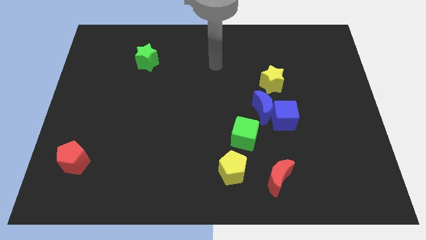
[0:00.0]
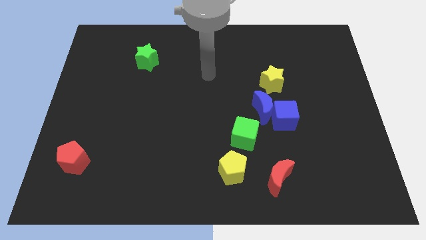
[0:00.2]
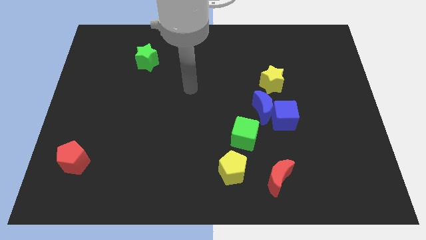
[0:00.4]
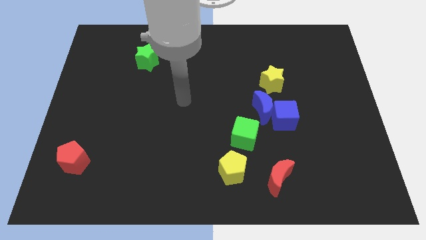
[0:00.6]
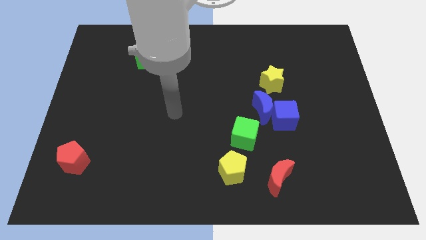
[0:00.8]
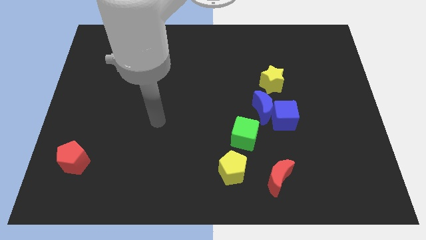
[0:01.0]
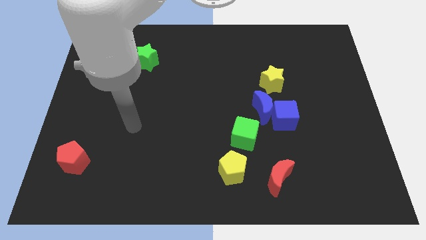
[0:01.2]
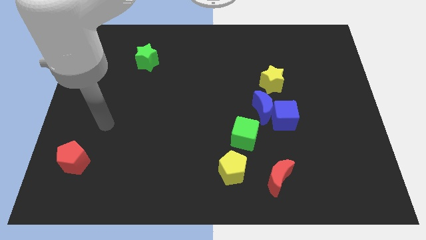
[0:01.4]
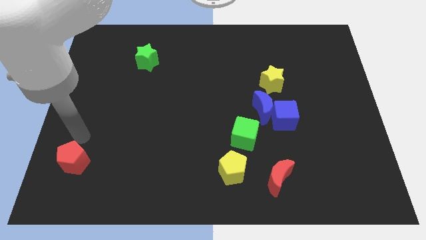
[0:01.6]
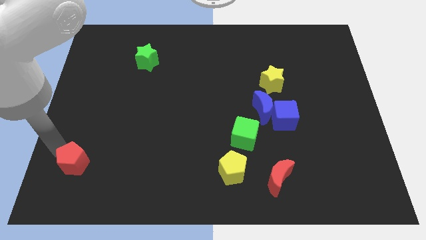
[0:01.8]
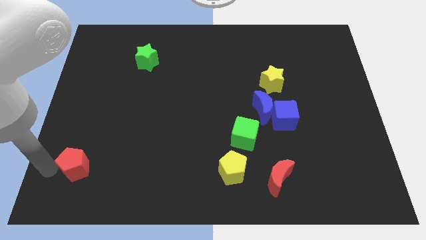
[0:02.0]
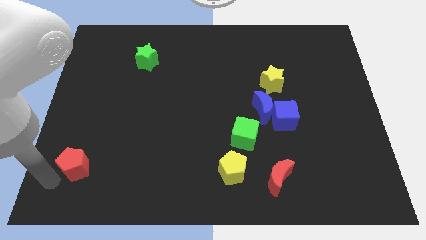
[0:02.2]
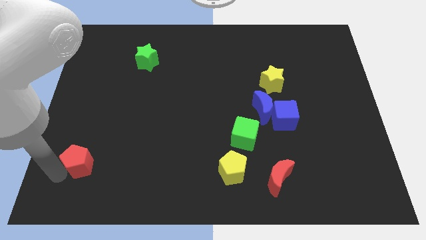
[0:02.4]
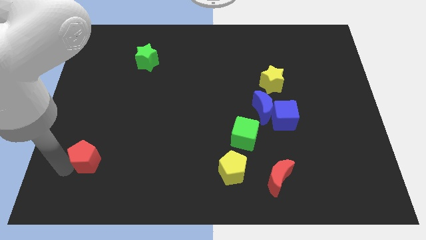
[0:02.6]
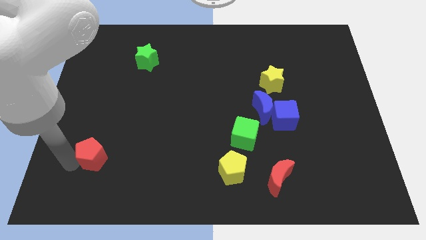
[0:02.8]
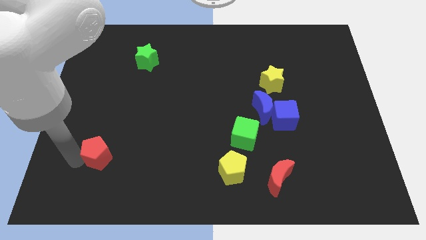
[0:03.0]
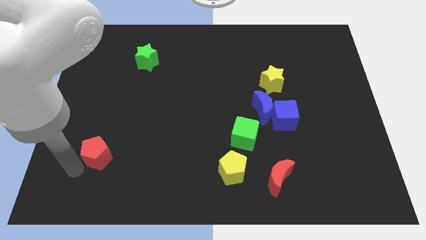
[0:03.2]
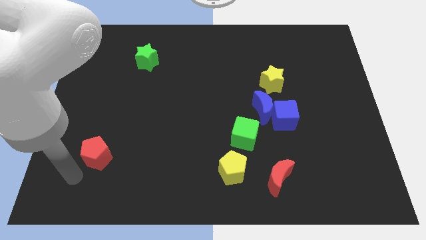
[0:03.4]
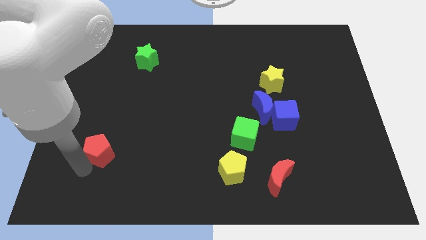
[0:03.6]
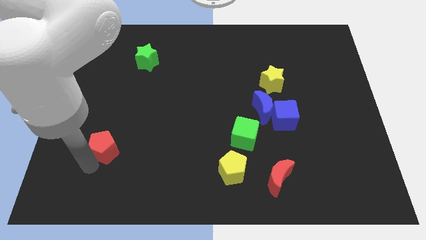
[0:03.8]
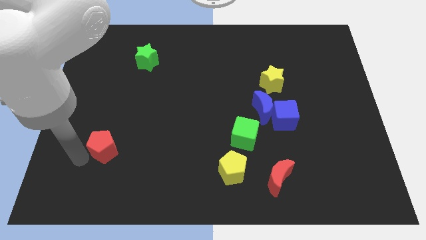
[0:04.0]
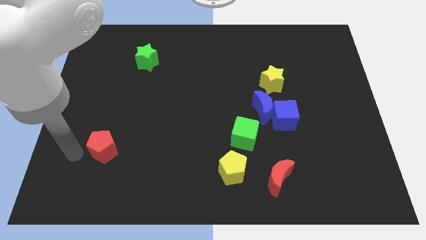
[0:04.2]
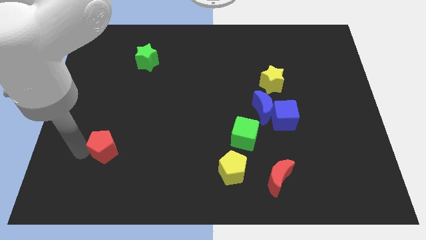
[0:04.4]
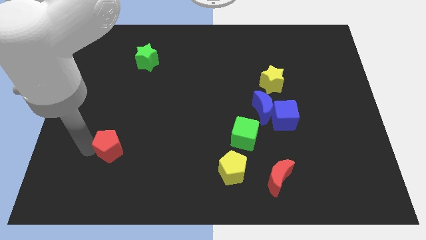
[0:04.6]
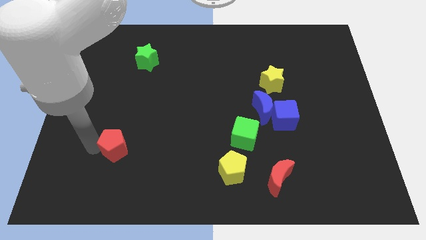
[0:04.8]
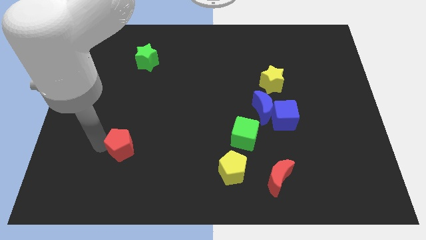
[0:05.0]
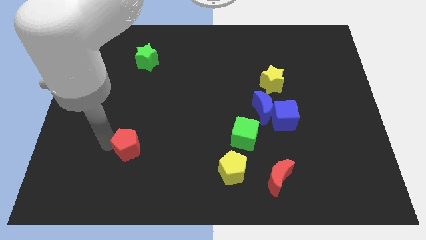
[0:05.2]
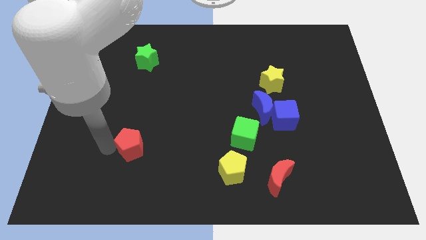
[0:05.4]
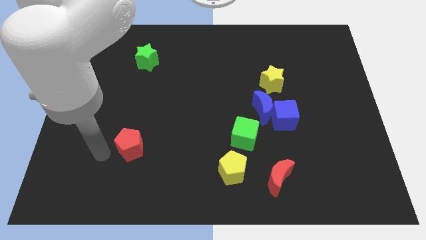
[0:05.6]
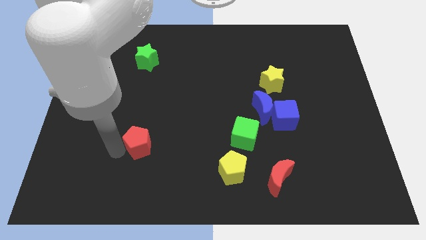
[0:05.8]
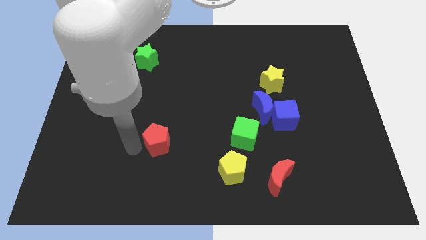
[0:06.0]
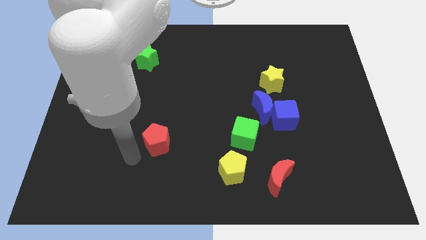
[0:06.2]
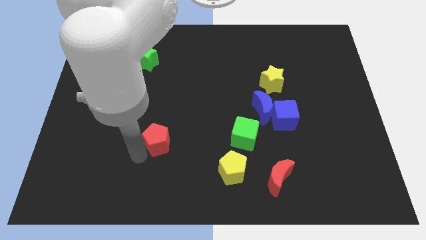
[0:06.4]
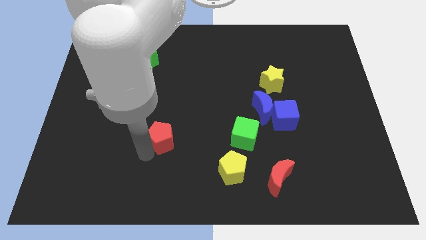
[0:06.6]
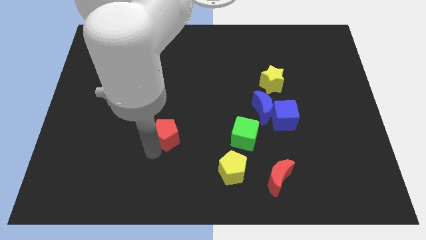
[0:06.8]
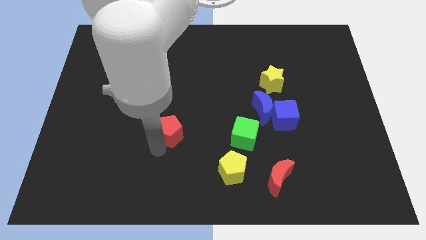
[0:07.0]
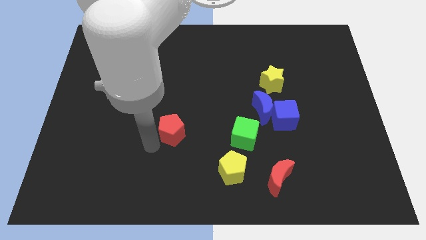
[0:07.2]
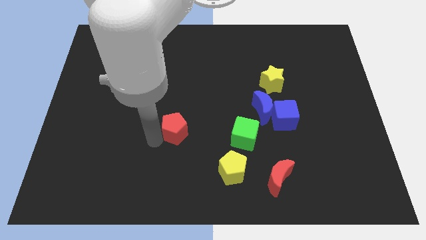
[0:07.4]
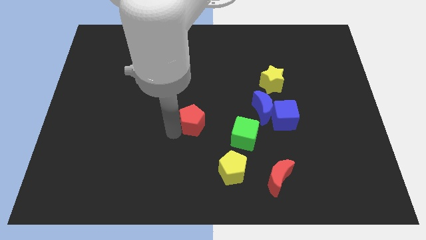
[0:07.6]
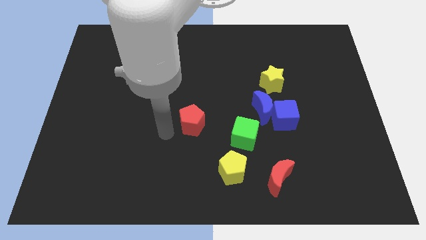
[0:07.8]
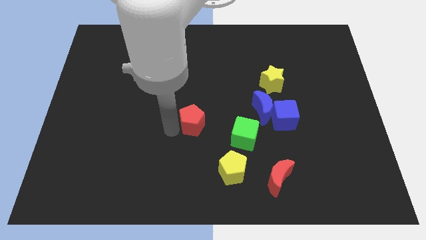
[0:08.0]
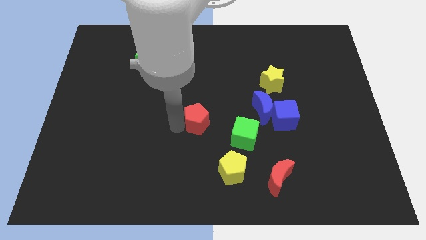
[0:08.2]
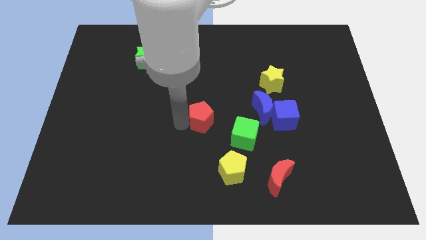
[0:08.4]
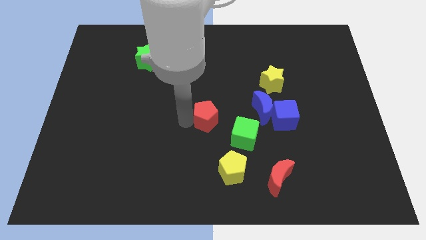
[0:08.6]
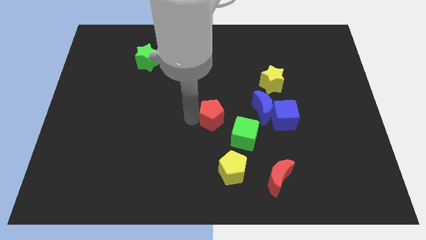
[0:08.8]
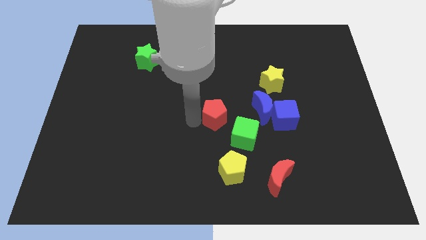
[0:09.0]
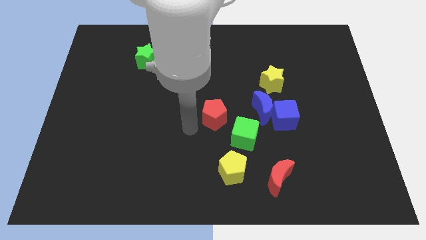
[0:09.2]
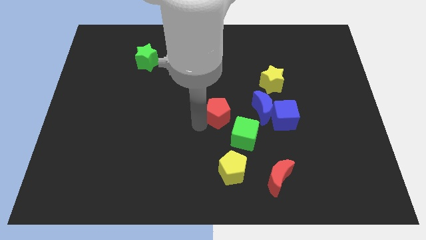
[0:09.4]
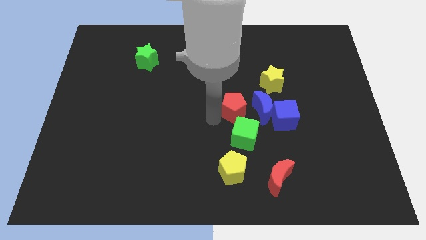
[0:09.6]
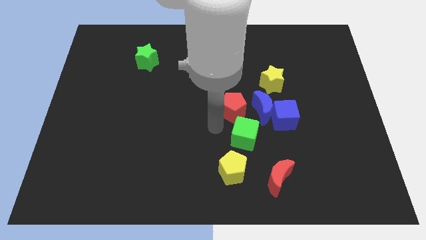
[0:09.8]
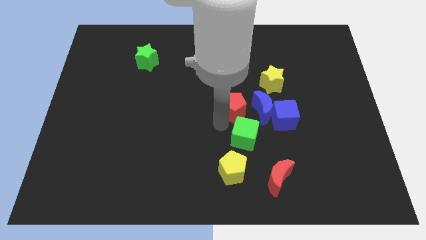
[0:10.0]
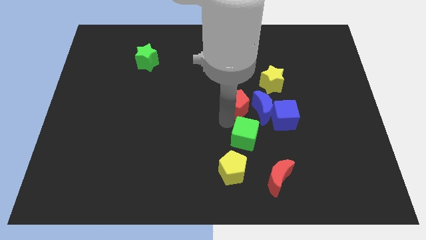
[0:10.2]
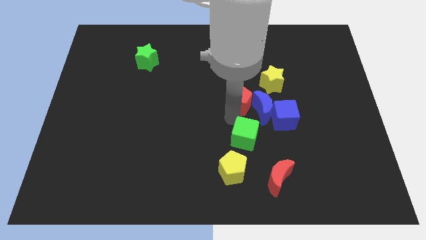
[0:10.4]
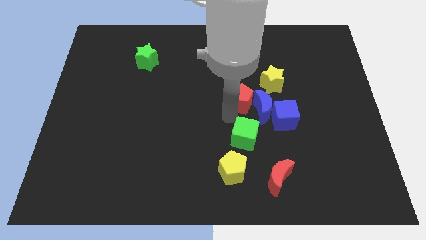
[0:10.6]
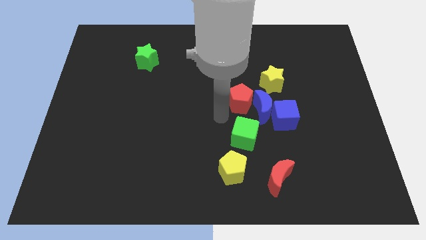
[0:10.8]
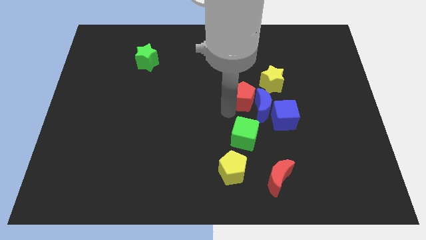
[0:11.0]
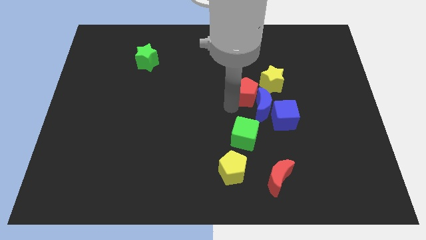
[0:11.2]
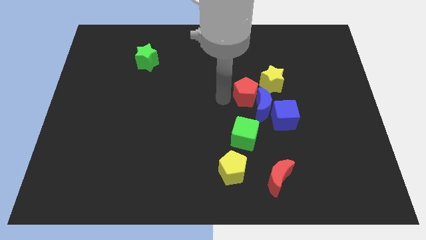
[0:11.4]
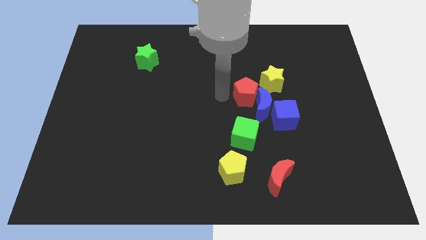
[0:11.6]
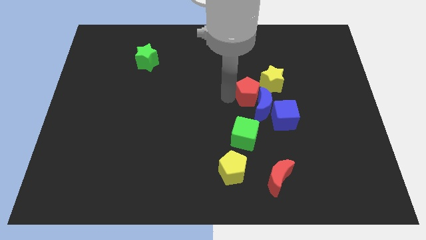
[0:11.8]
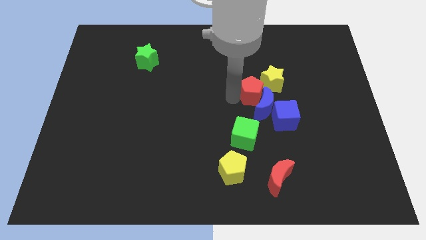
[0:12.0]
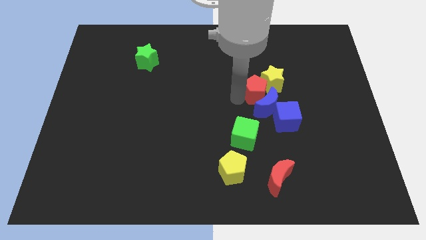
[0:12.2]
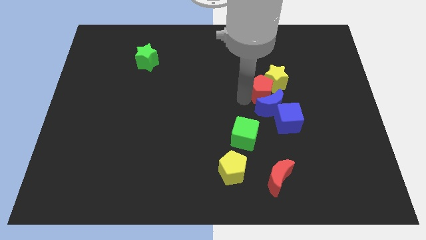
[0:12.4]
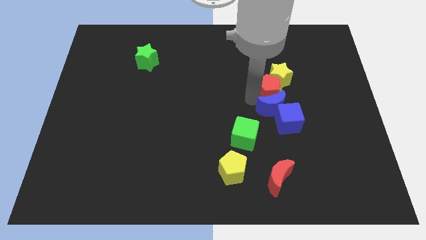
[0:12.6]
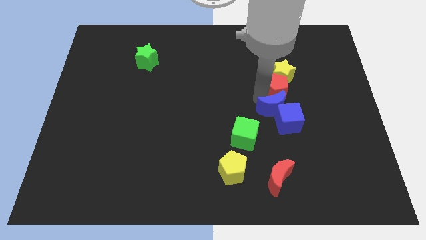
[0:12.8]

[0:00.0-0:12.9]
put the red pentagon to the bottom right side of the yellow star

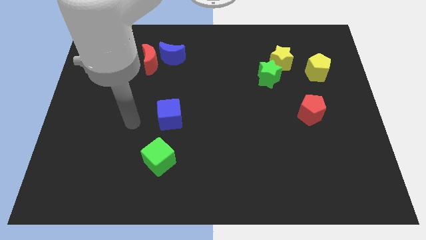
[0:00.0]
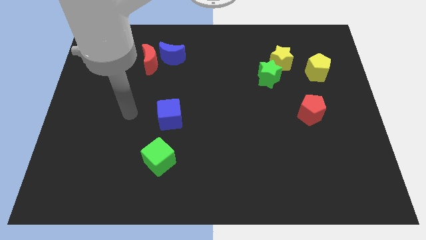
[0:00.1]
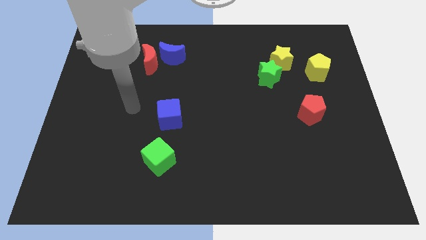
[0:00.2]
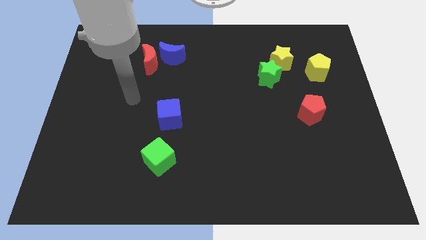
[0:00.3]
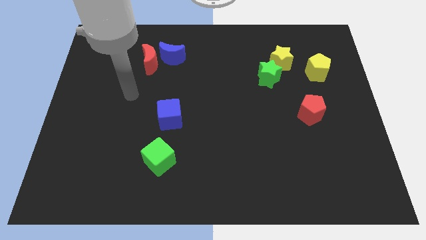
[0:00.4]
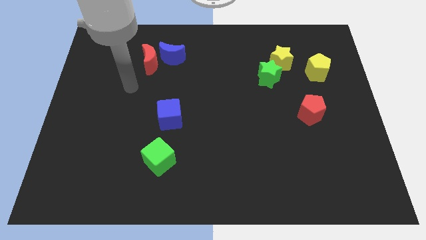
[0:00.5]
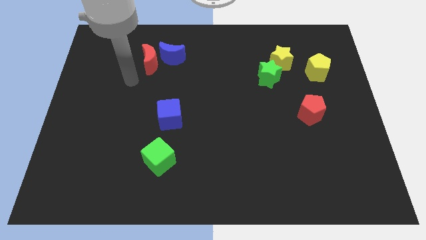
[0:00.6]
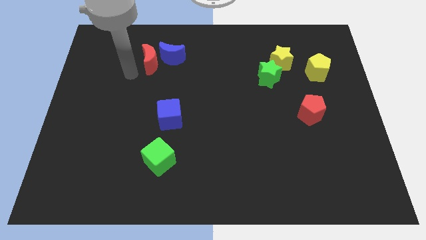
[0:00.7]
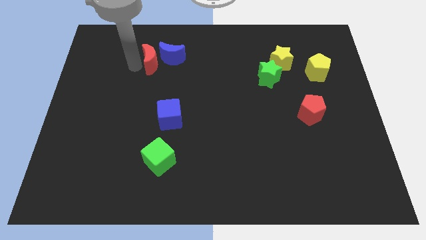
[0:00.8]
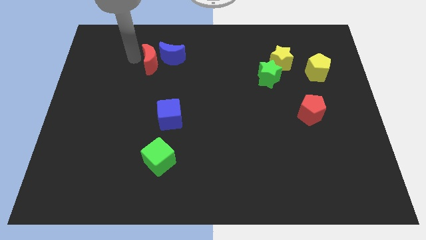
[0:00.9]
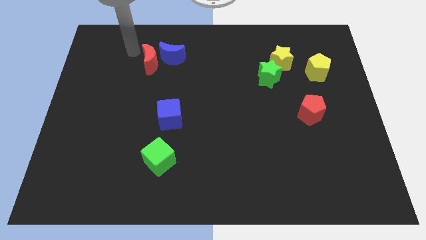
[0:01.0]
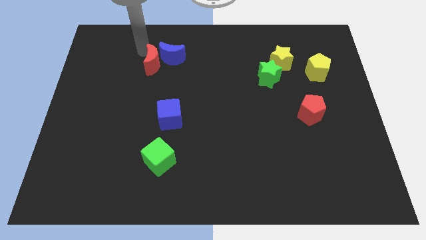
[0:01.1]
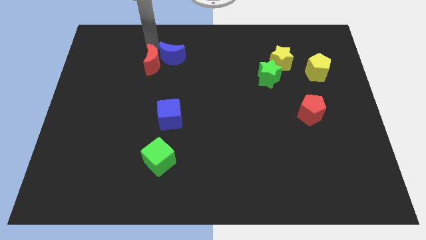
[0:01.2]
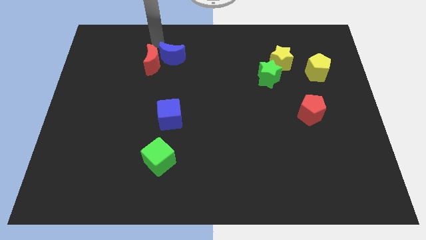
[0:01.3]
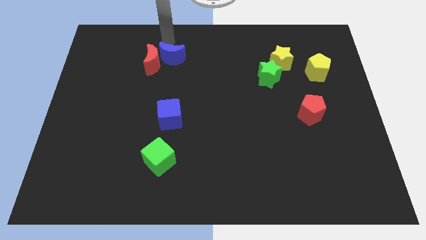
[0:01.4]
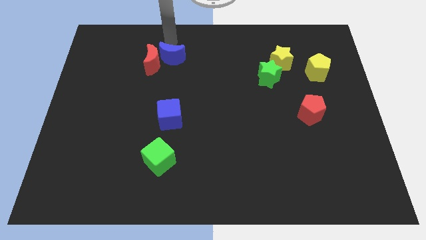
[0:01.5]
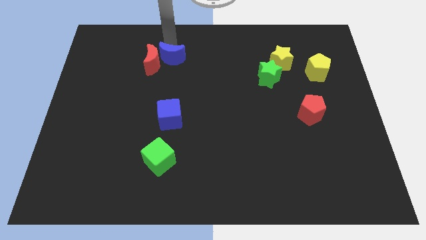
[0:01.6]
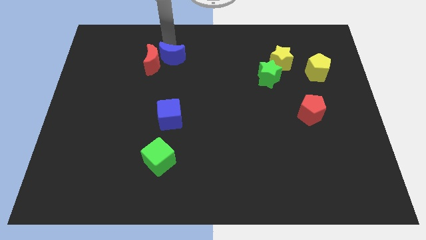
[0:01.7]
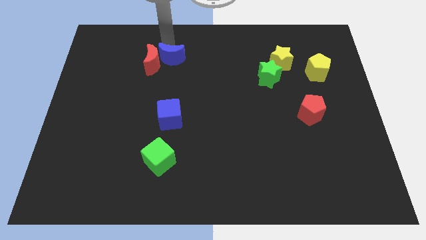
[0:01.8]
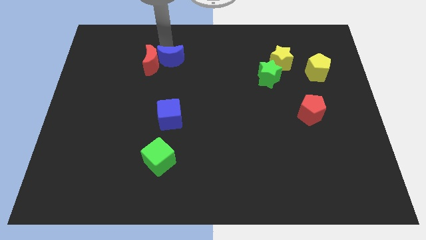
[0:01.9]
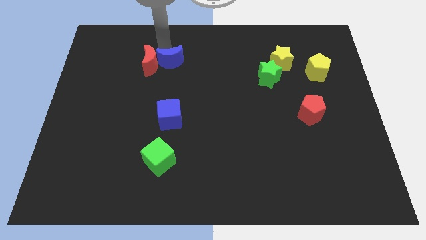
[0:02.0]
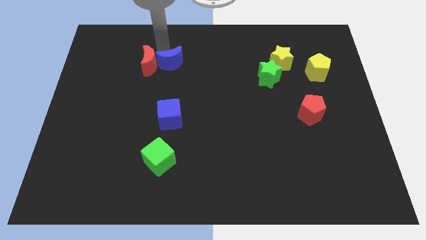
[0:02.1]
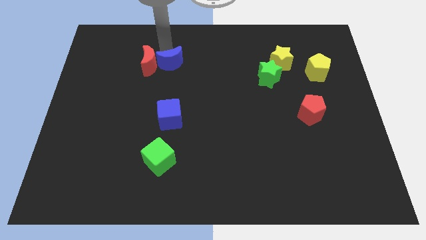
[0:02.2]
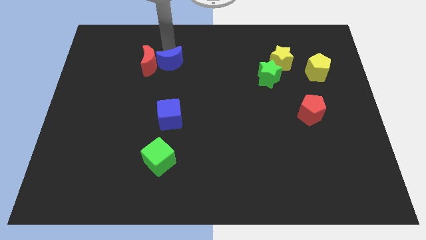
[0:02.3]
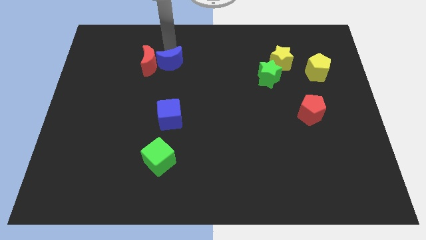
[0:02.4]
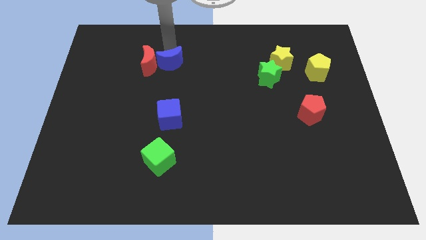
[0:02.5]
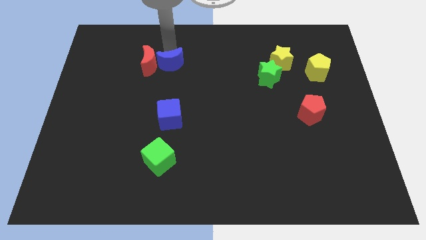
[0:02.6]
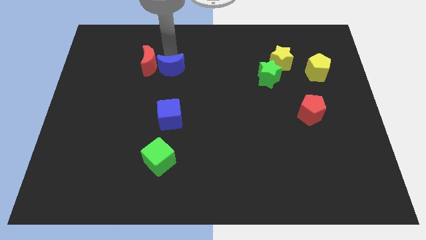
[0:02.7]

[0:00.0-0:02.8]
move the blue moon to the top side of the blue cube
